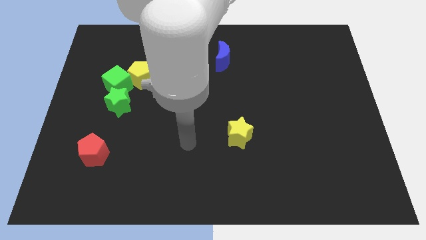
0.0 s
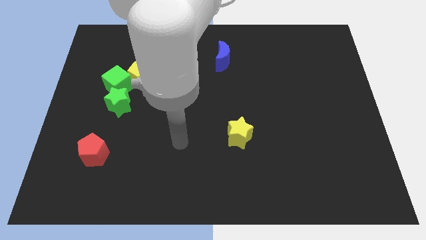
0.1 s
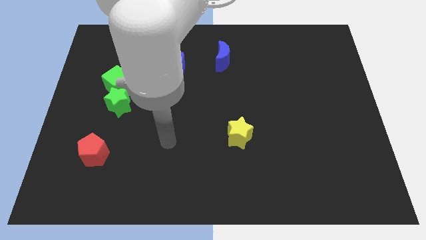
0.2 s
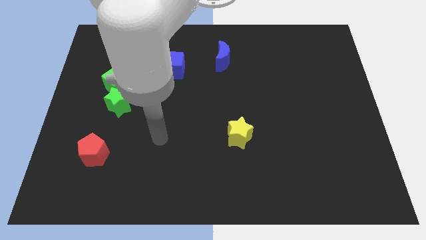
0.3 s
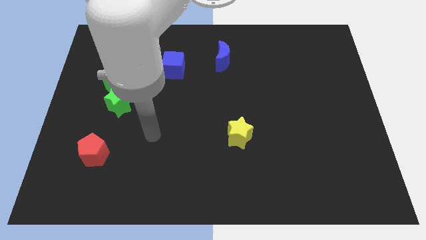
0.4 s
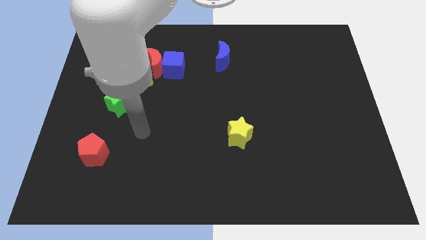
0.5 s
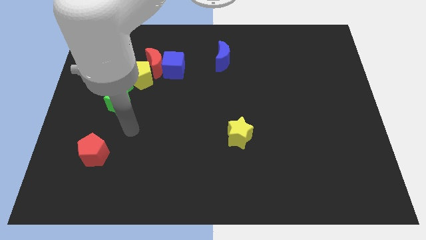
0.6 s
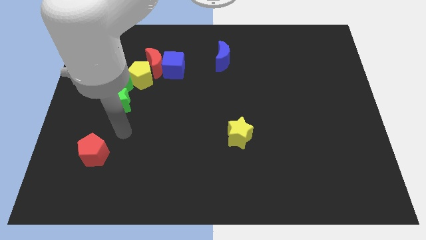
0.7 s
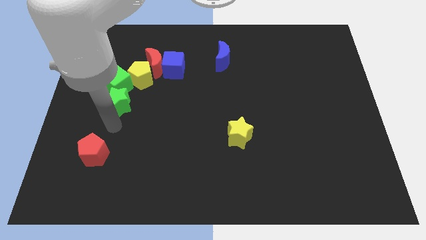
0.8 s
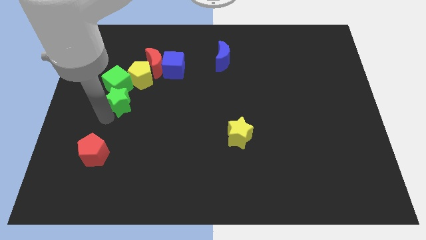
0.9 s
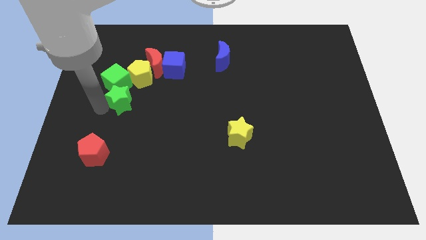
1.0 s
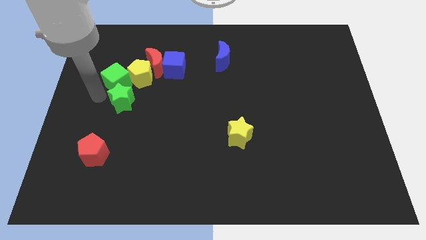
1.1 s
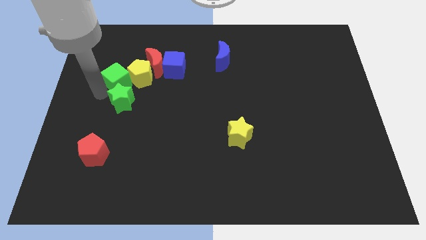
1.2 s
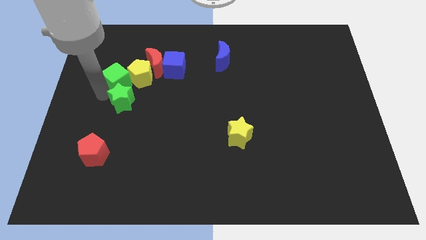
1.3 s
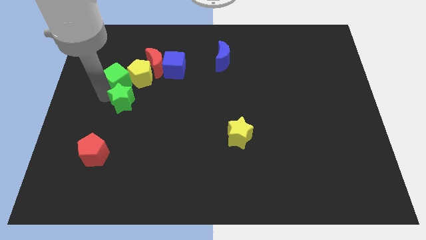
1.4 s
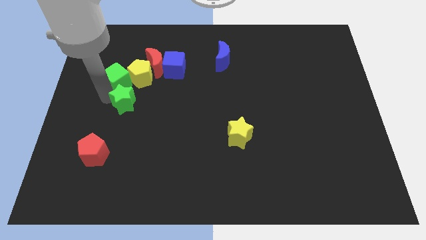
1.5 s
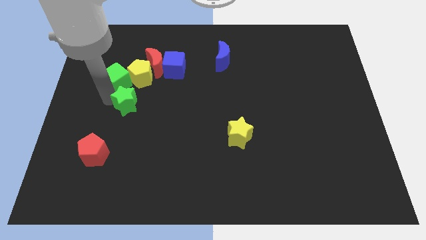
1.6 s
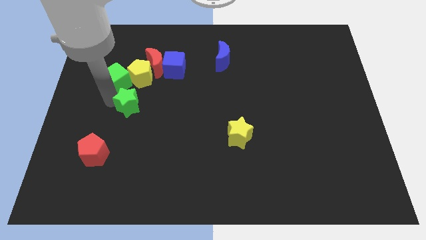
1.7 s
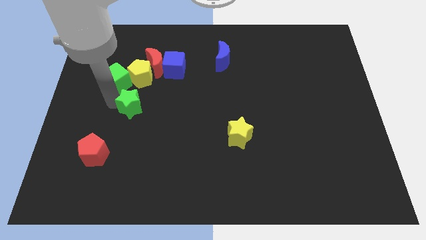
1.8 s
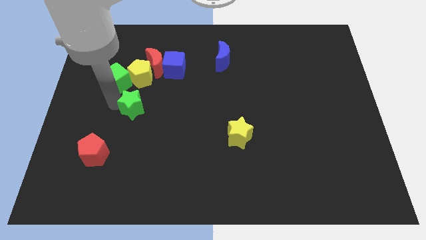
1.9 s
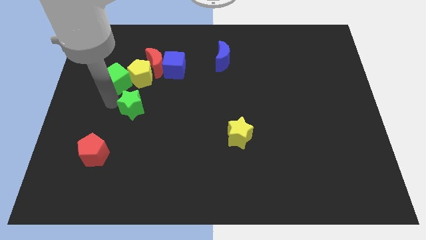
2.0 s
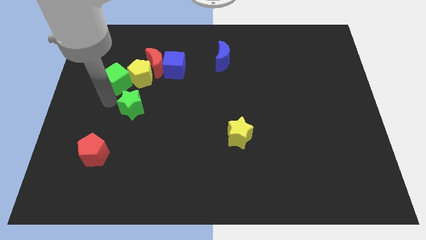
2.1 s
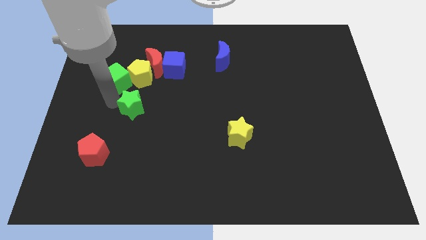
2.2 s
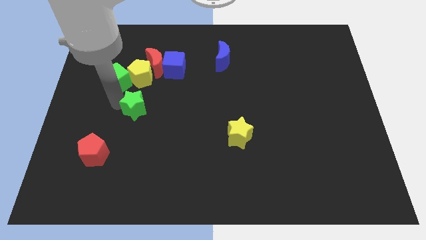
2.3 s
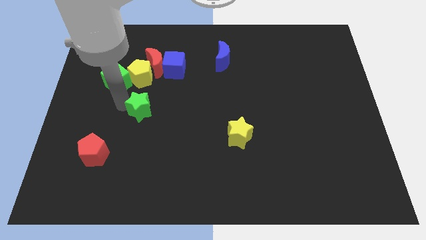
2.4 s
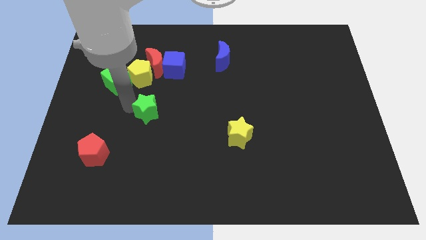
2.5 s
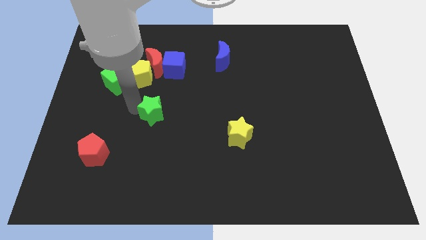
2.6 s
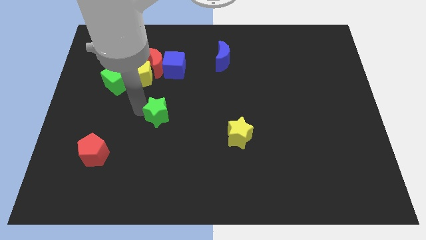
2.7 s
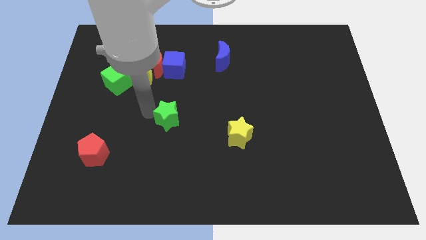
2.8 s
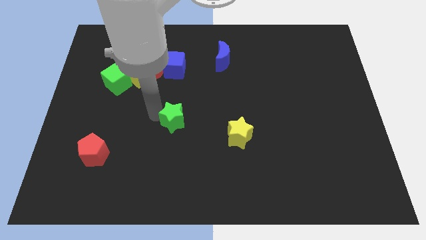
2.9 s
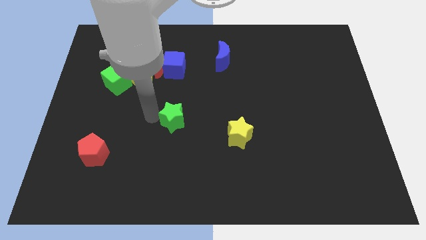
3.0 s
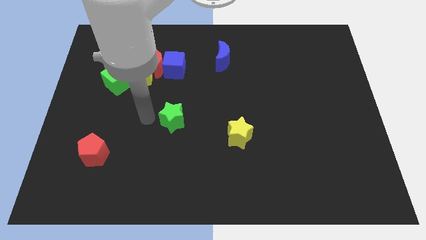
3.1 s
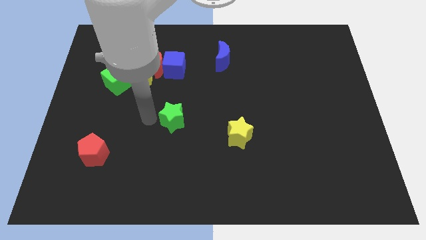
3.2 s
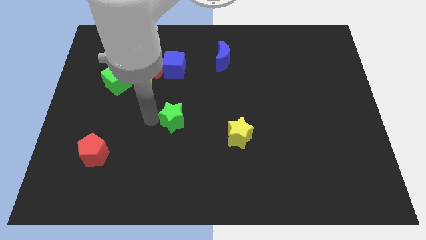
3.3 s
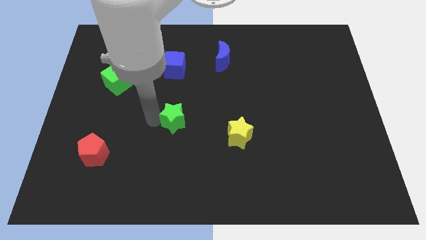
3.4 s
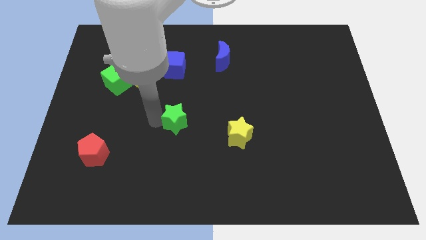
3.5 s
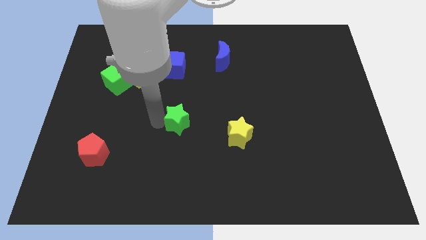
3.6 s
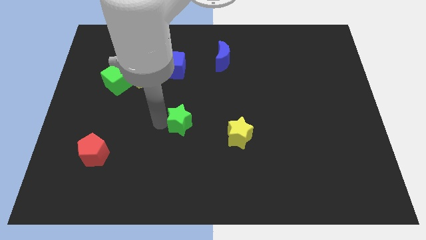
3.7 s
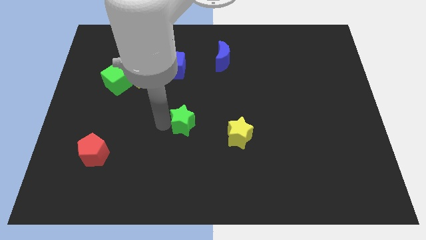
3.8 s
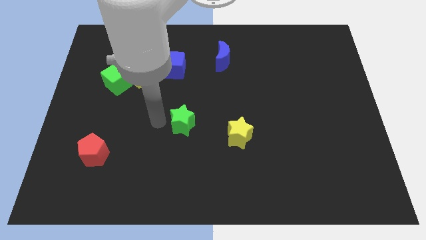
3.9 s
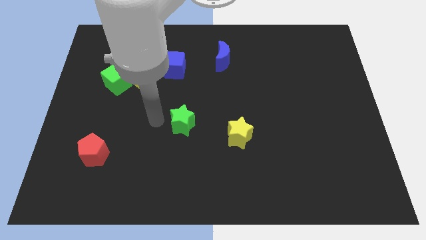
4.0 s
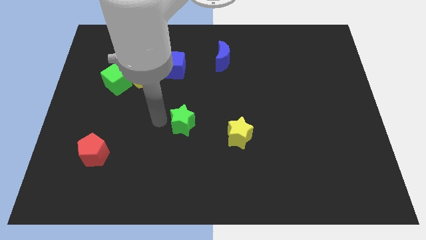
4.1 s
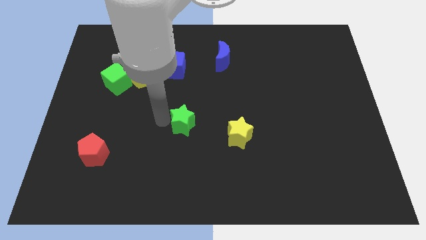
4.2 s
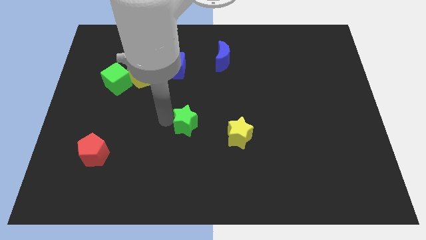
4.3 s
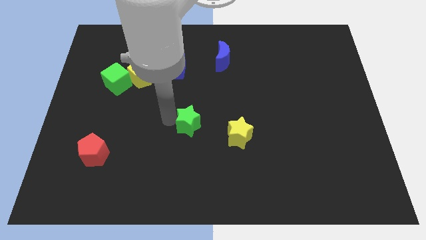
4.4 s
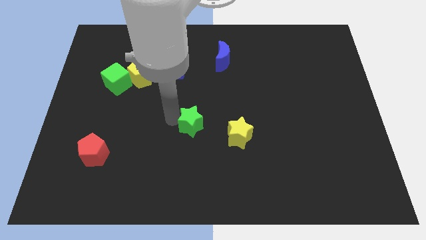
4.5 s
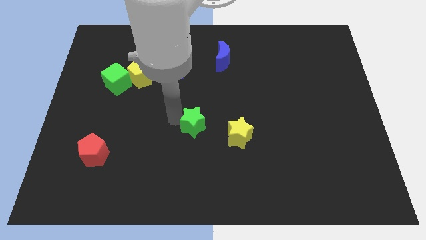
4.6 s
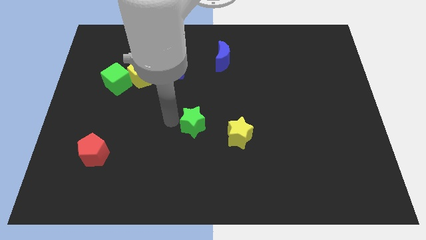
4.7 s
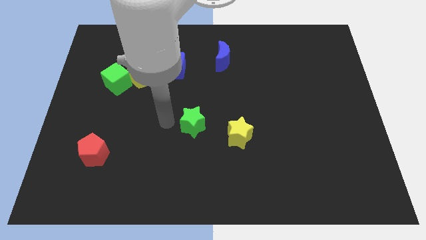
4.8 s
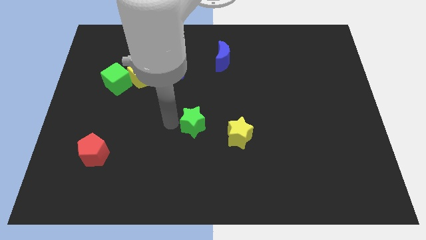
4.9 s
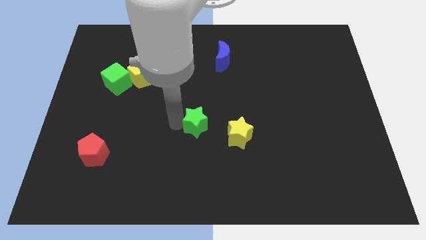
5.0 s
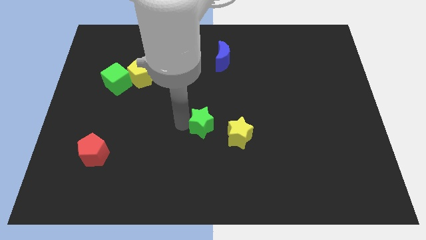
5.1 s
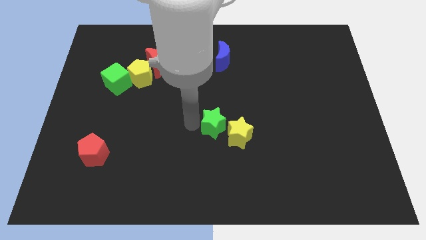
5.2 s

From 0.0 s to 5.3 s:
slide the green star close to the yellow star

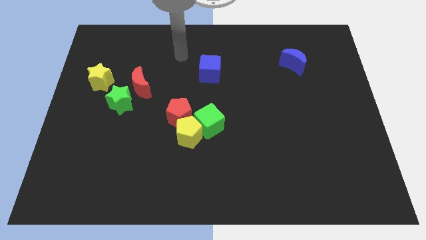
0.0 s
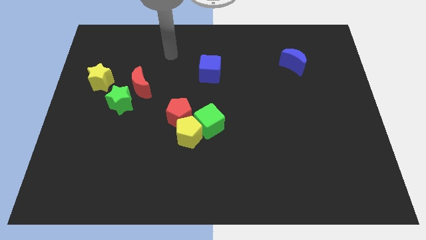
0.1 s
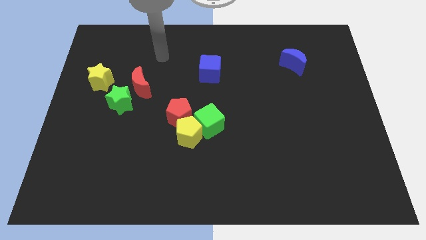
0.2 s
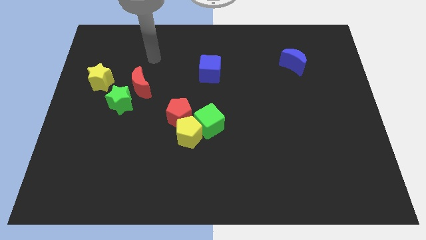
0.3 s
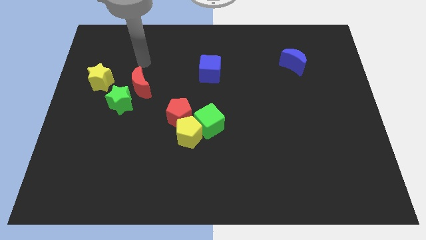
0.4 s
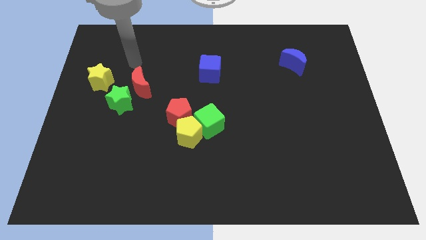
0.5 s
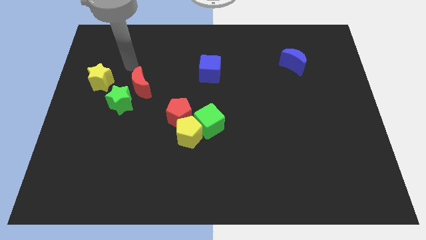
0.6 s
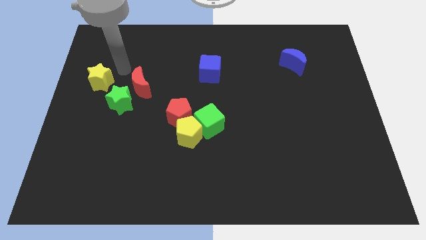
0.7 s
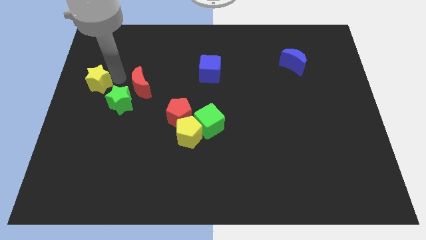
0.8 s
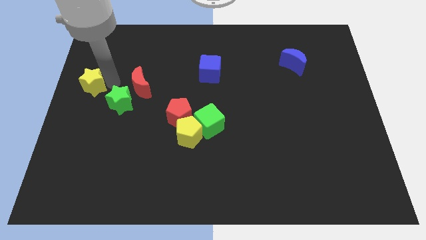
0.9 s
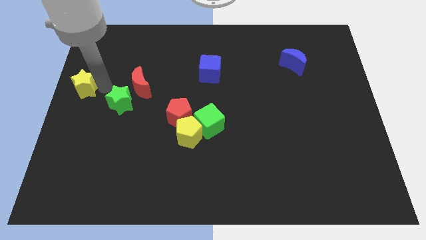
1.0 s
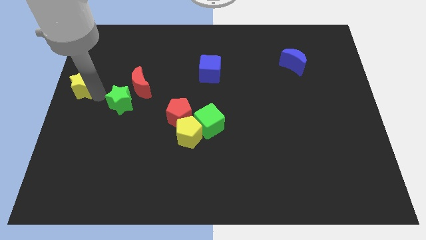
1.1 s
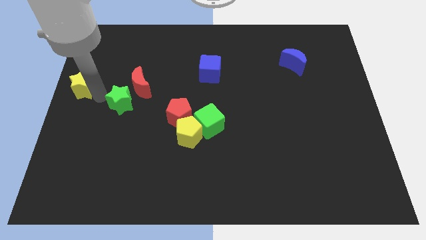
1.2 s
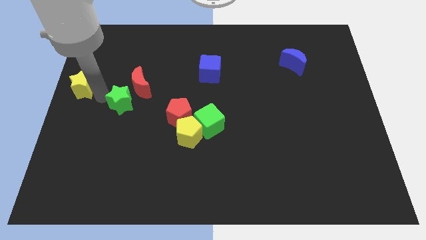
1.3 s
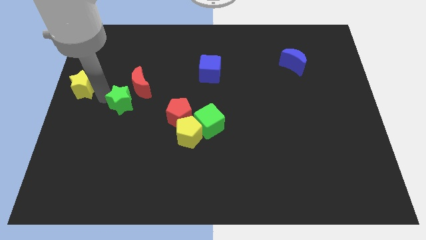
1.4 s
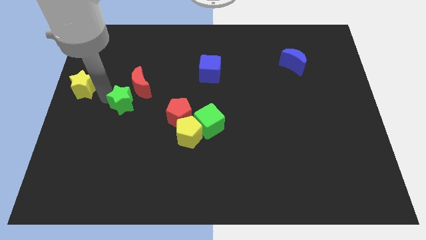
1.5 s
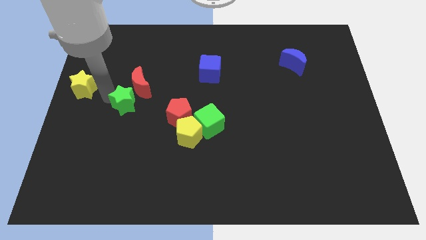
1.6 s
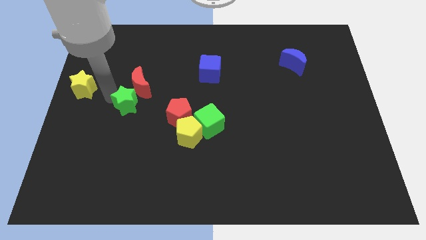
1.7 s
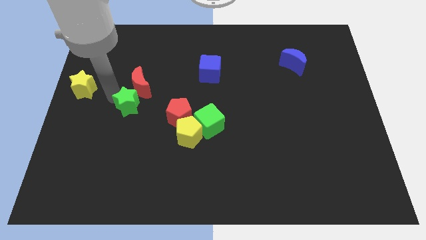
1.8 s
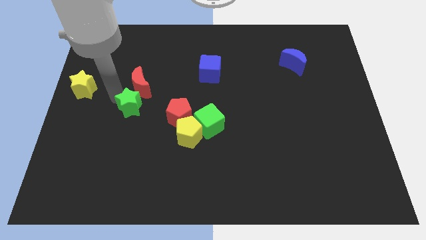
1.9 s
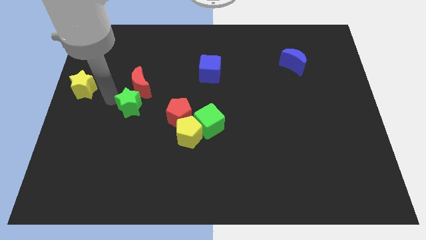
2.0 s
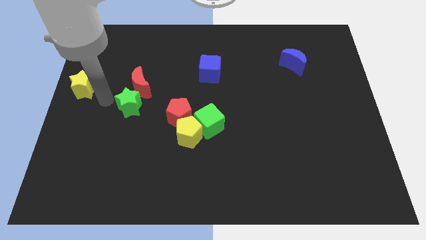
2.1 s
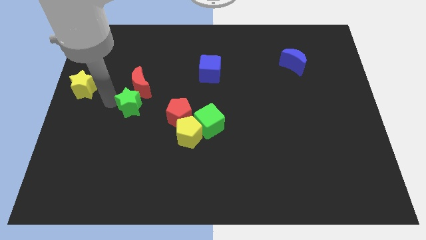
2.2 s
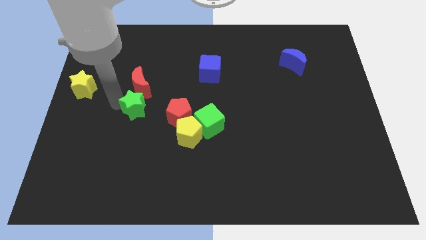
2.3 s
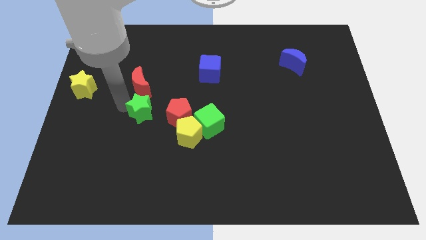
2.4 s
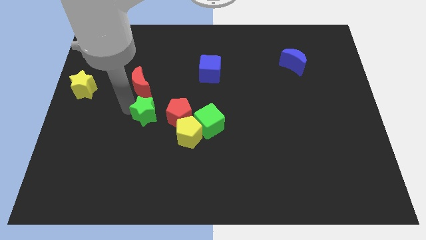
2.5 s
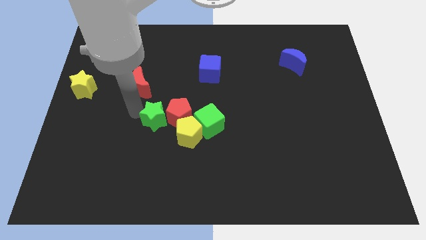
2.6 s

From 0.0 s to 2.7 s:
move the green star close to the red pentagon
